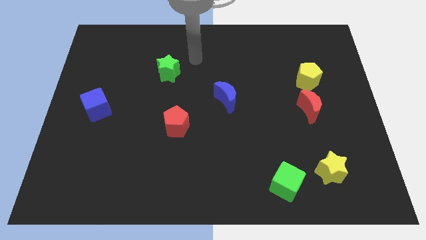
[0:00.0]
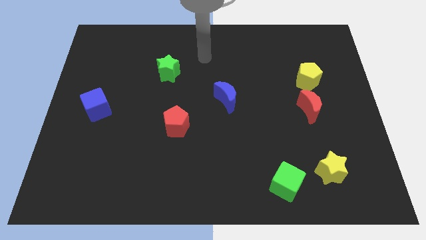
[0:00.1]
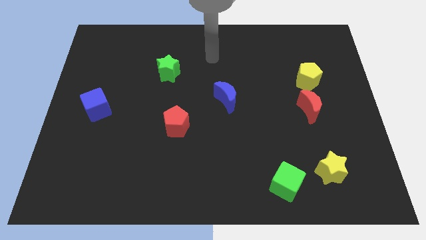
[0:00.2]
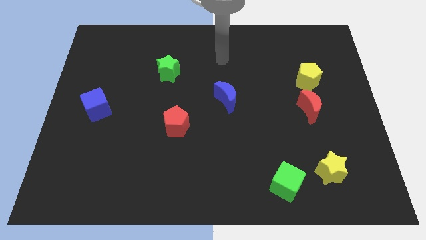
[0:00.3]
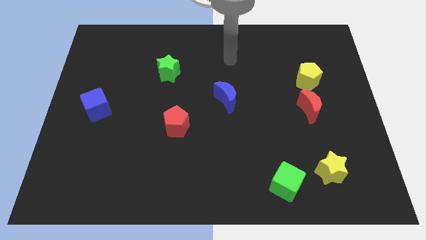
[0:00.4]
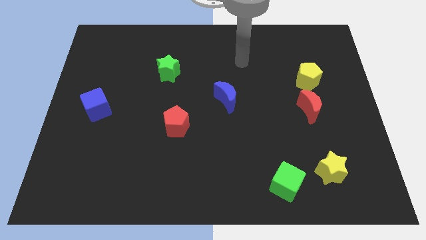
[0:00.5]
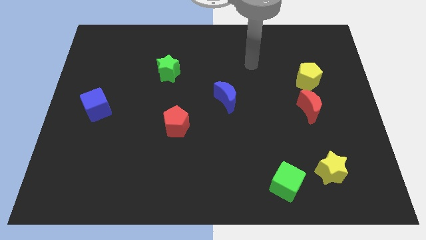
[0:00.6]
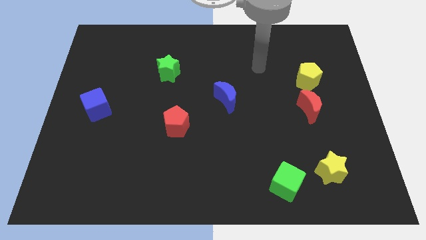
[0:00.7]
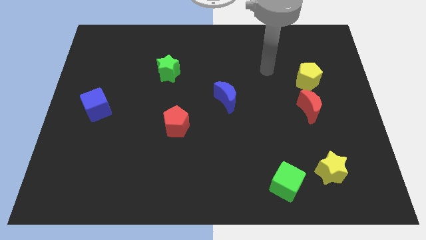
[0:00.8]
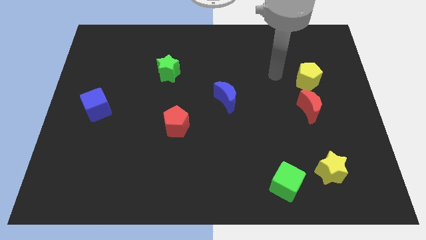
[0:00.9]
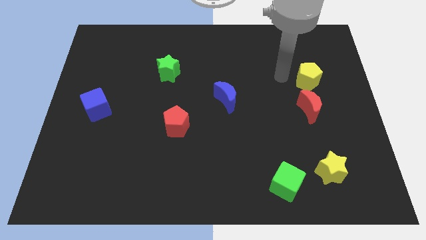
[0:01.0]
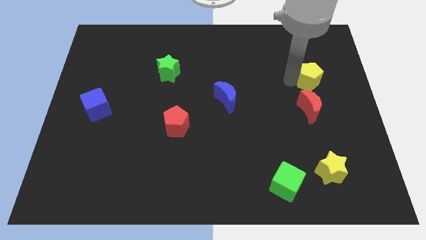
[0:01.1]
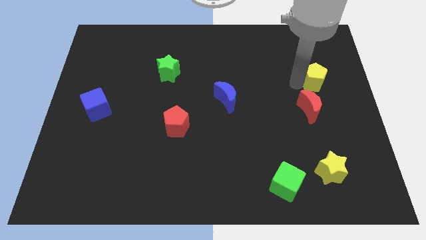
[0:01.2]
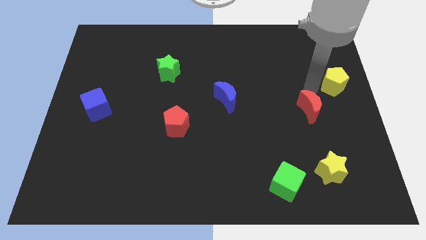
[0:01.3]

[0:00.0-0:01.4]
pull the red moon apart from the yellow pentagon

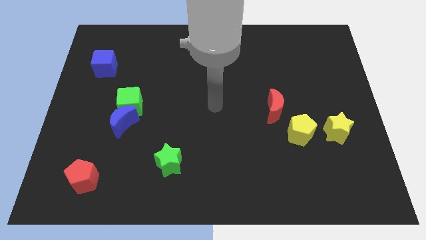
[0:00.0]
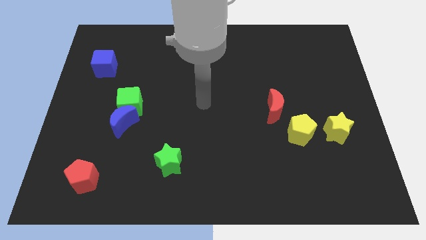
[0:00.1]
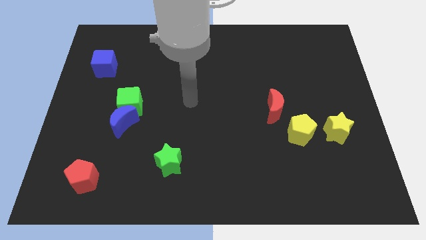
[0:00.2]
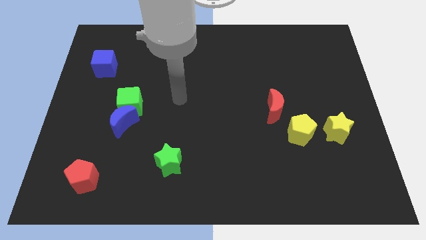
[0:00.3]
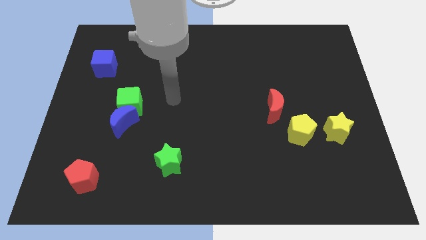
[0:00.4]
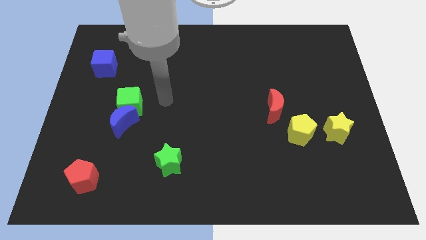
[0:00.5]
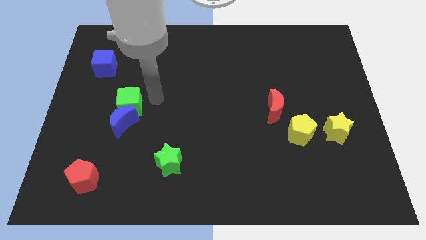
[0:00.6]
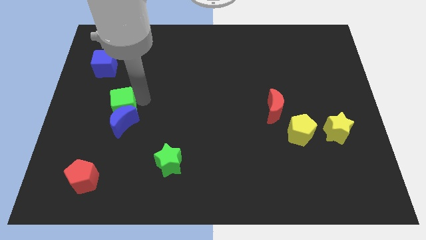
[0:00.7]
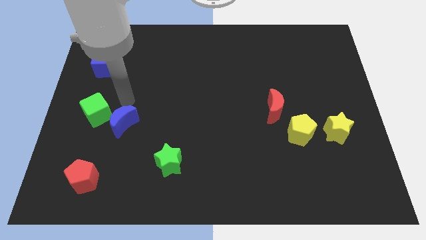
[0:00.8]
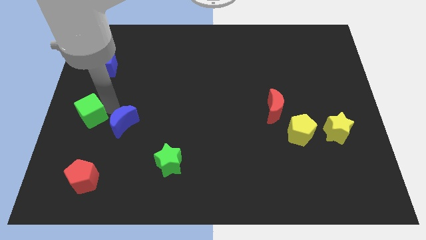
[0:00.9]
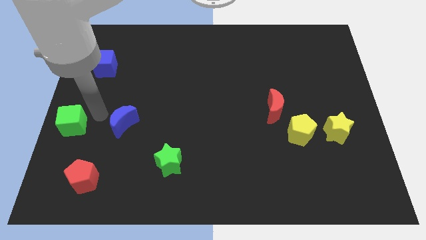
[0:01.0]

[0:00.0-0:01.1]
separate the blue moon from the green cube

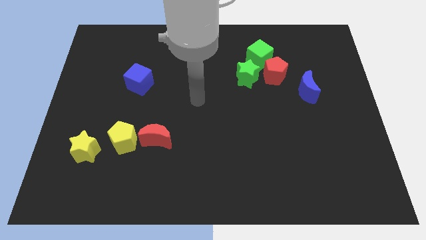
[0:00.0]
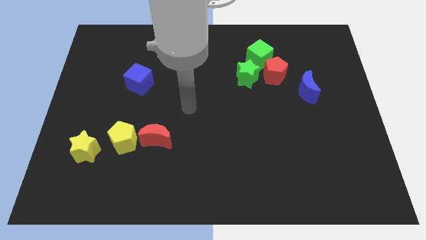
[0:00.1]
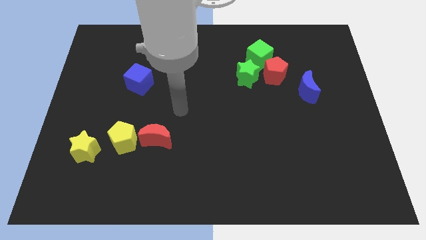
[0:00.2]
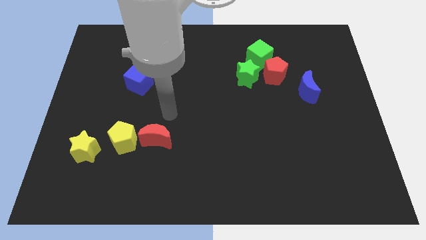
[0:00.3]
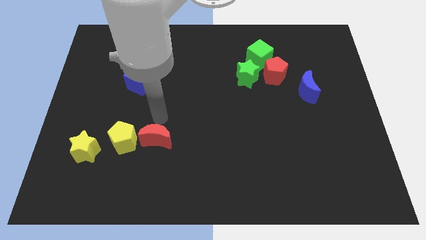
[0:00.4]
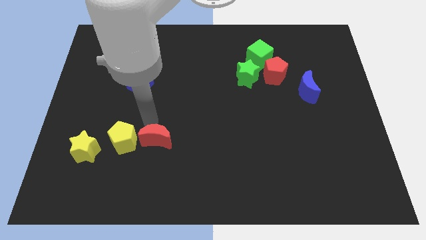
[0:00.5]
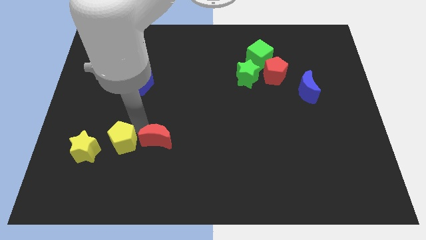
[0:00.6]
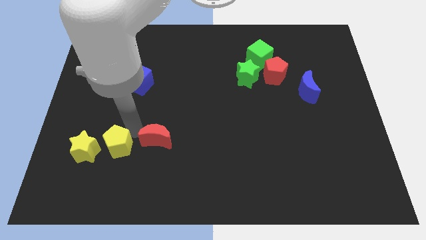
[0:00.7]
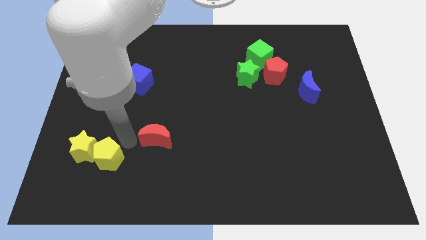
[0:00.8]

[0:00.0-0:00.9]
move the red moon away from the yellow pentagon

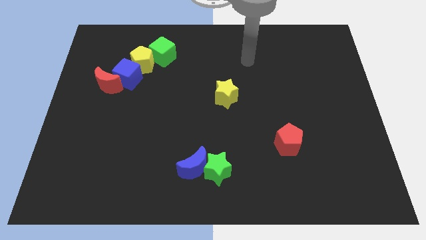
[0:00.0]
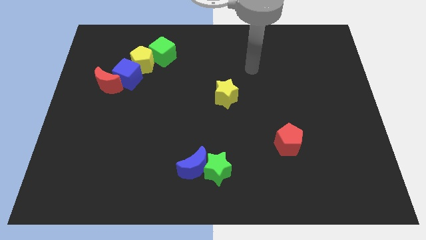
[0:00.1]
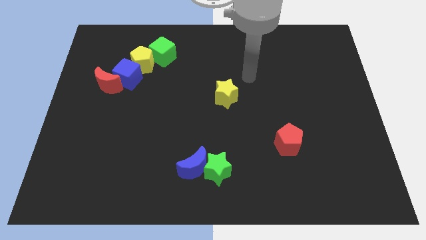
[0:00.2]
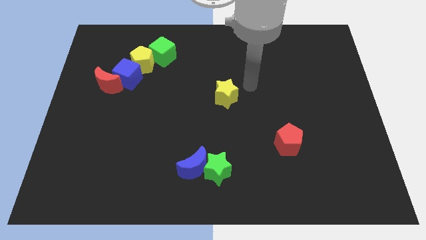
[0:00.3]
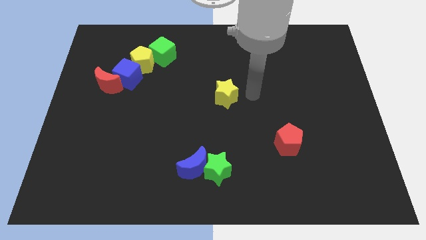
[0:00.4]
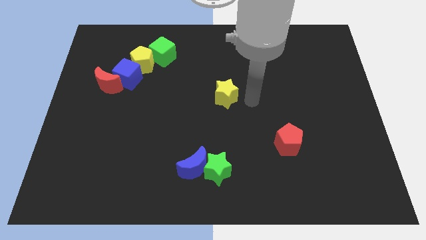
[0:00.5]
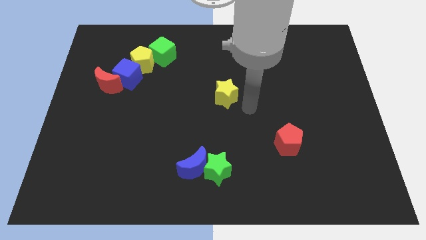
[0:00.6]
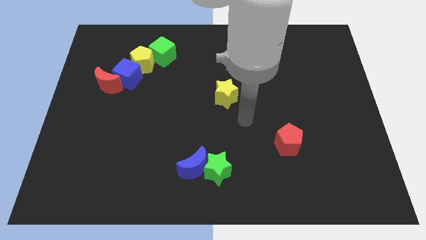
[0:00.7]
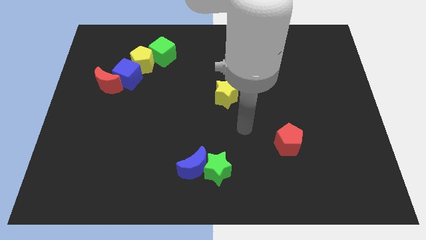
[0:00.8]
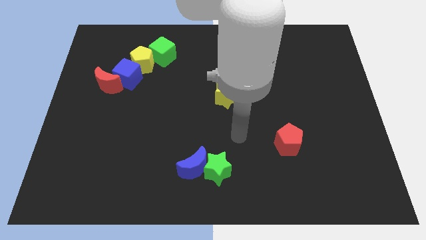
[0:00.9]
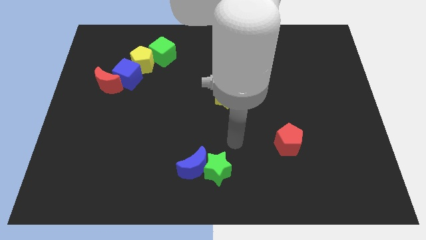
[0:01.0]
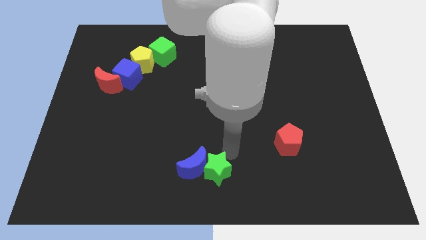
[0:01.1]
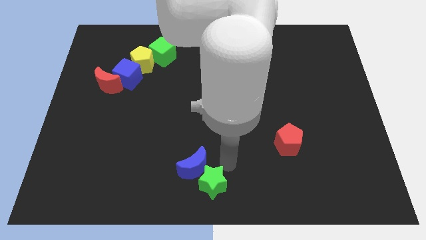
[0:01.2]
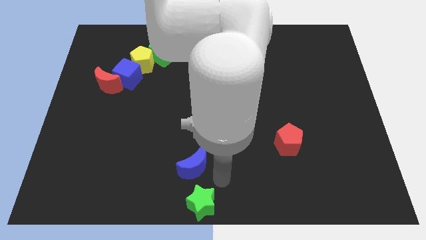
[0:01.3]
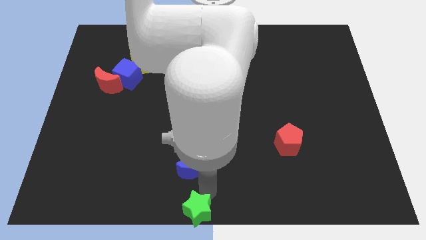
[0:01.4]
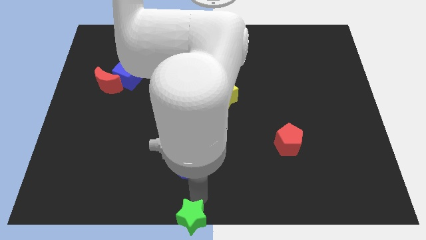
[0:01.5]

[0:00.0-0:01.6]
move the blue moon away from the green star

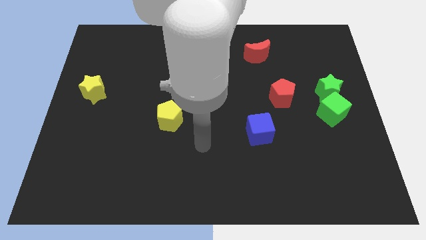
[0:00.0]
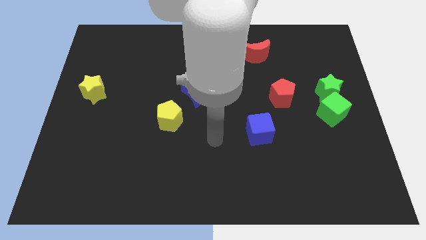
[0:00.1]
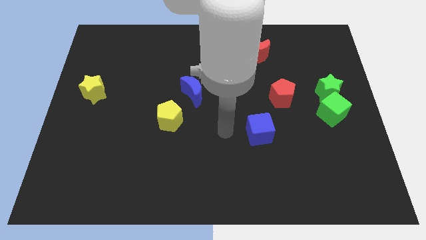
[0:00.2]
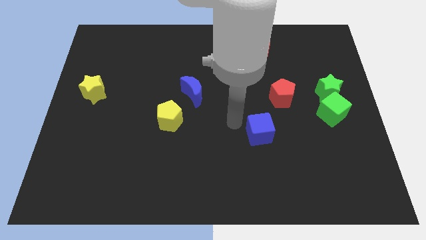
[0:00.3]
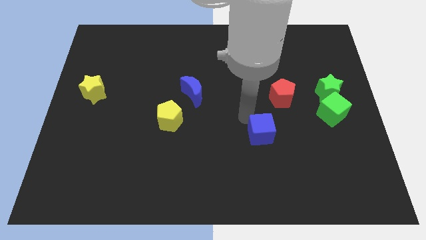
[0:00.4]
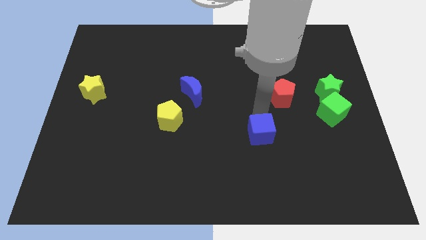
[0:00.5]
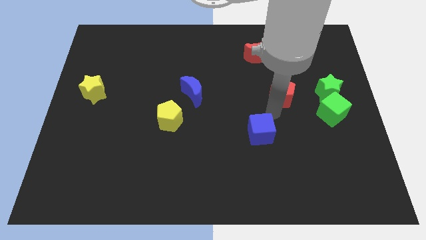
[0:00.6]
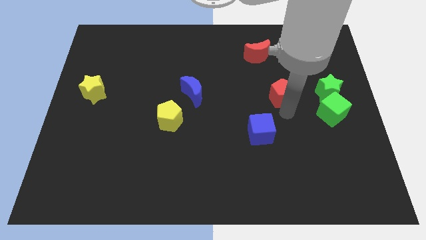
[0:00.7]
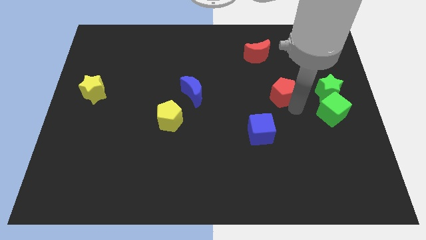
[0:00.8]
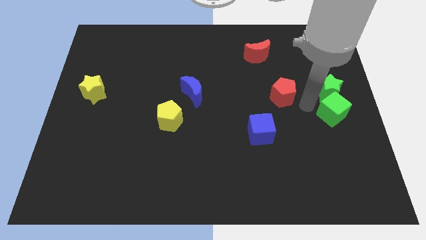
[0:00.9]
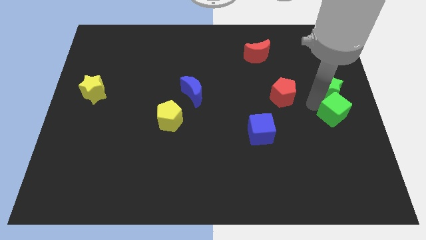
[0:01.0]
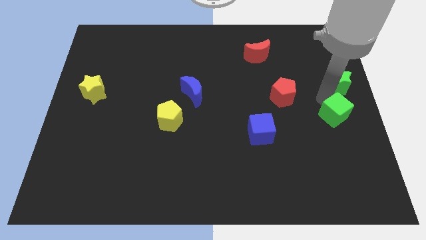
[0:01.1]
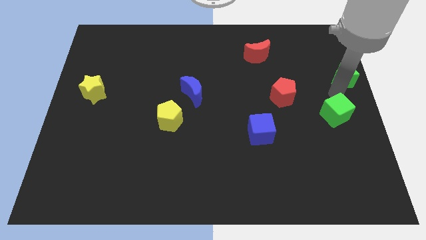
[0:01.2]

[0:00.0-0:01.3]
separate the green cube from the green star

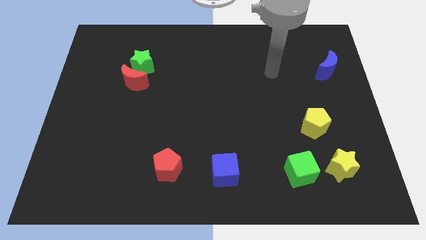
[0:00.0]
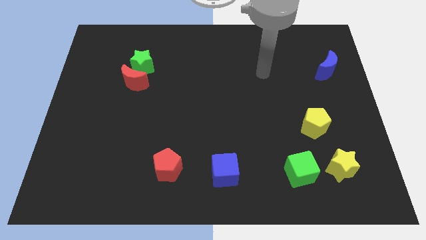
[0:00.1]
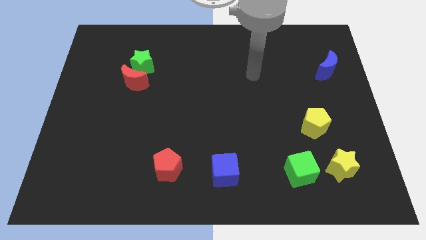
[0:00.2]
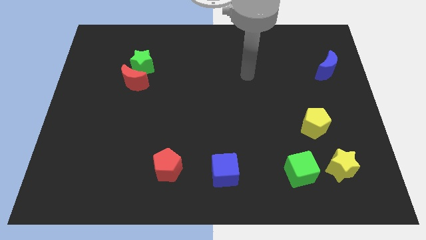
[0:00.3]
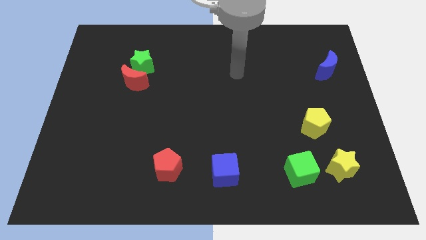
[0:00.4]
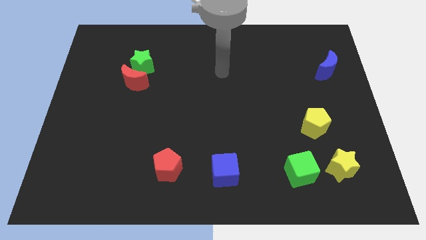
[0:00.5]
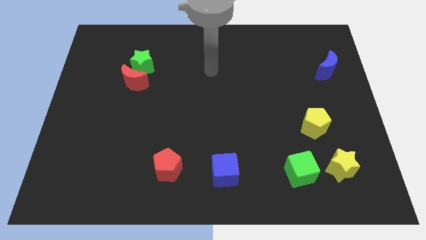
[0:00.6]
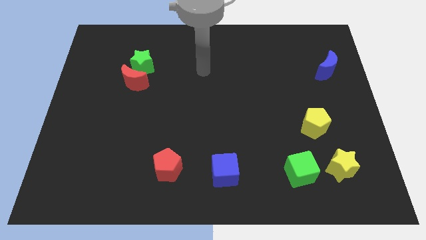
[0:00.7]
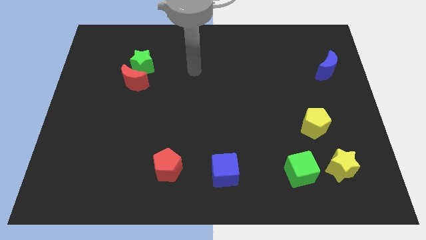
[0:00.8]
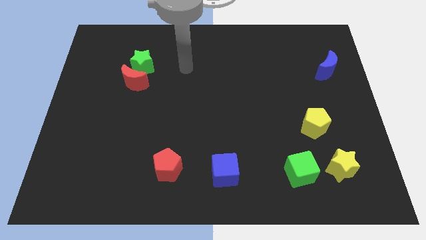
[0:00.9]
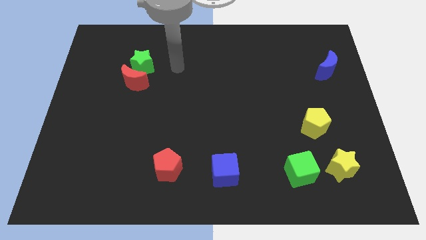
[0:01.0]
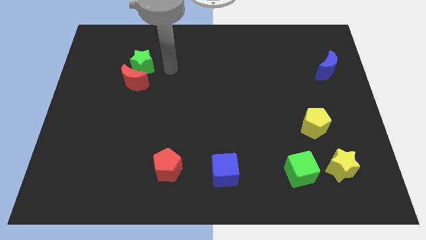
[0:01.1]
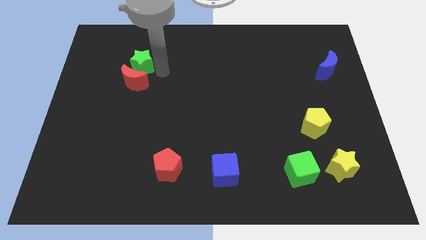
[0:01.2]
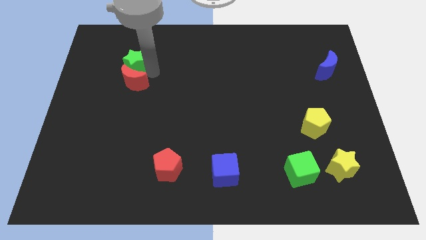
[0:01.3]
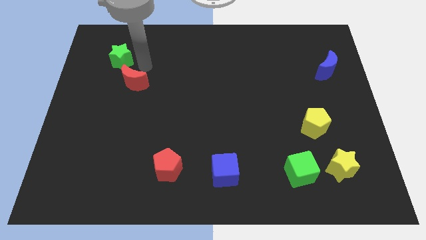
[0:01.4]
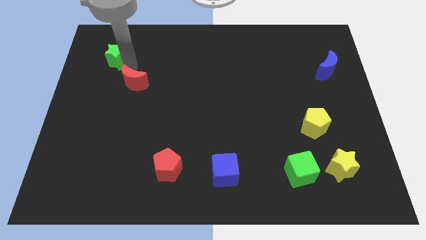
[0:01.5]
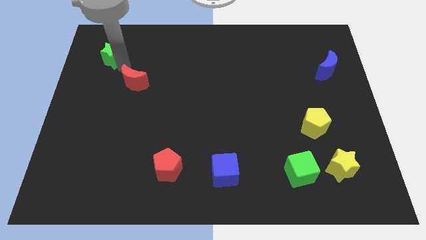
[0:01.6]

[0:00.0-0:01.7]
separate the red moon from the green star

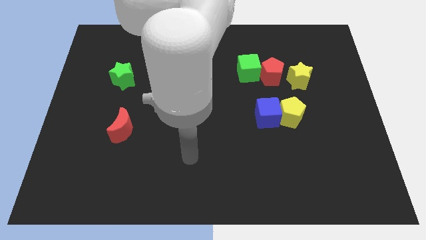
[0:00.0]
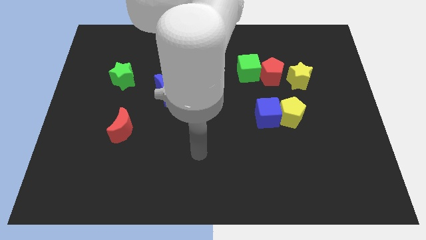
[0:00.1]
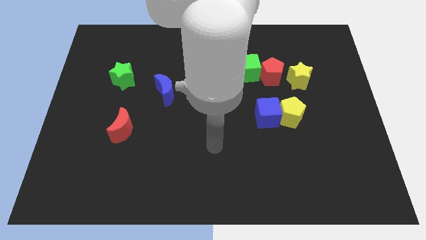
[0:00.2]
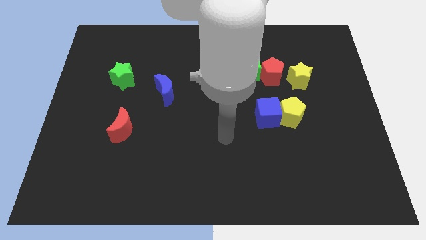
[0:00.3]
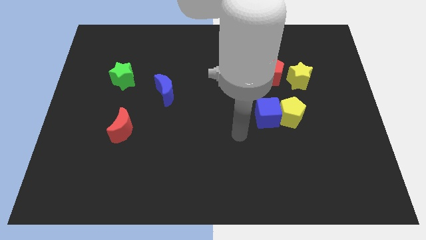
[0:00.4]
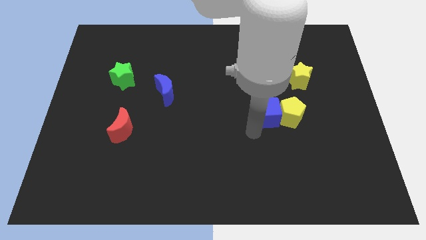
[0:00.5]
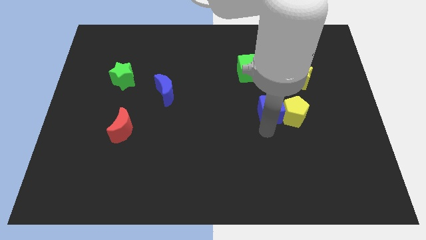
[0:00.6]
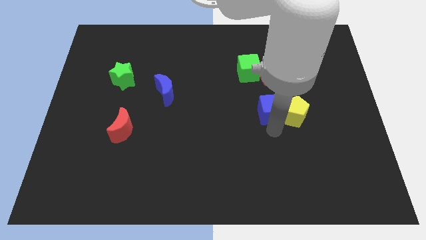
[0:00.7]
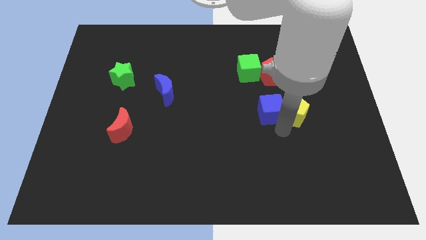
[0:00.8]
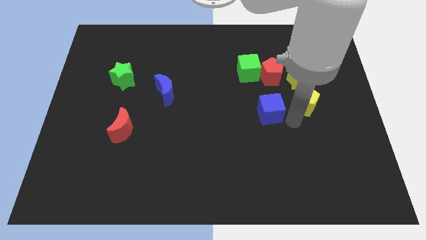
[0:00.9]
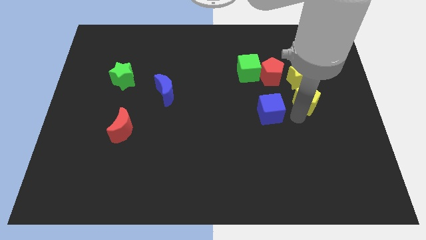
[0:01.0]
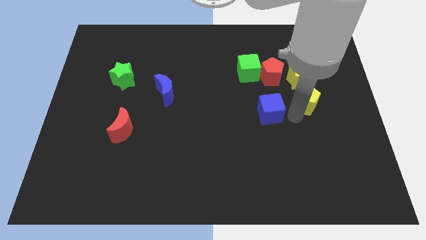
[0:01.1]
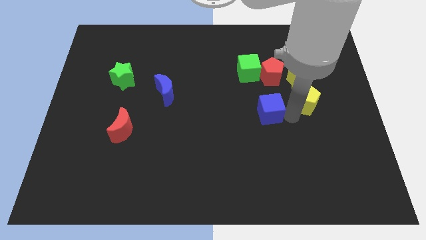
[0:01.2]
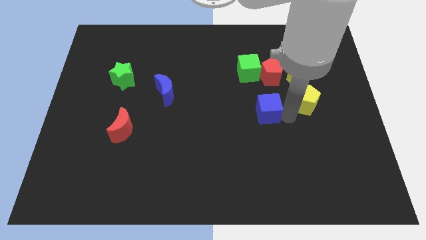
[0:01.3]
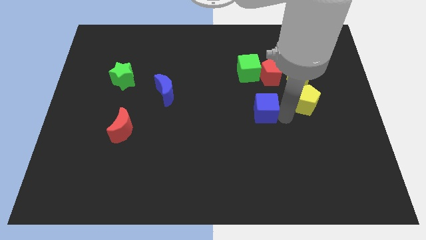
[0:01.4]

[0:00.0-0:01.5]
pull the blue cube apart from the yellow pentagon
